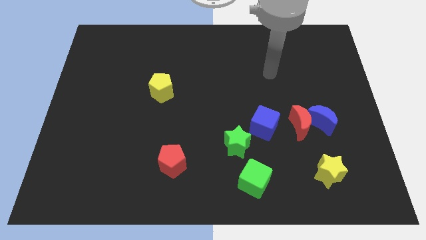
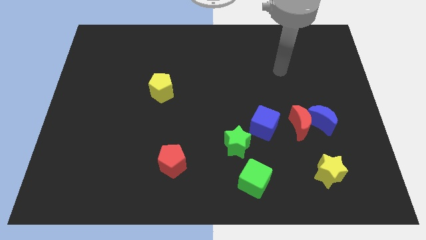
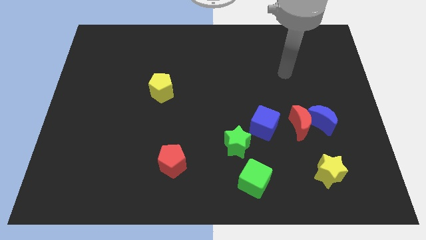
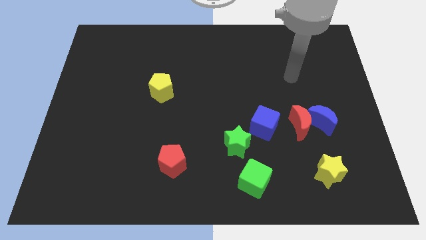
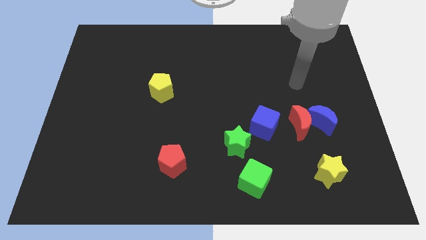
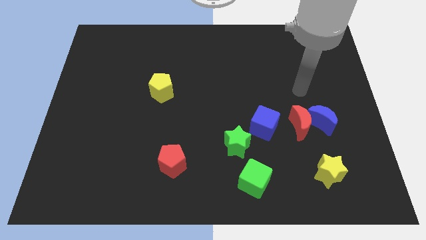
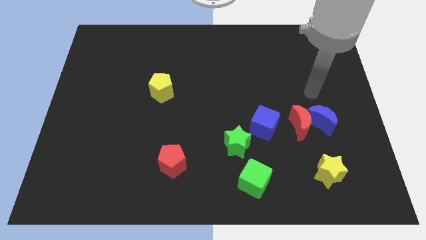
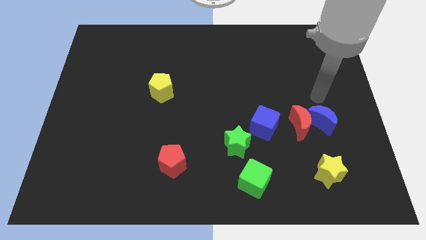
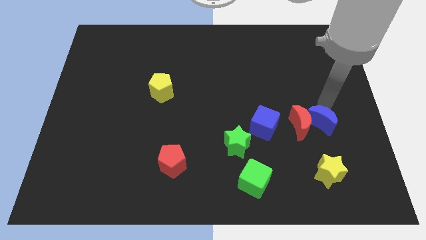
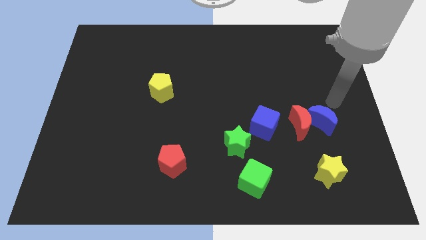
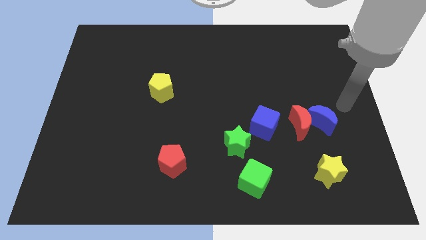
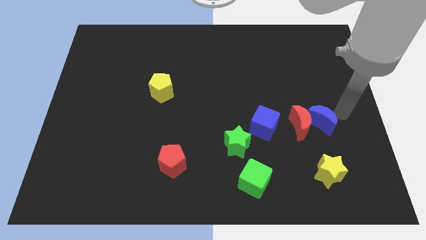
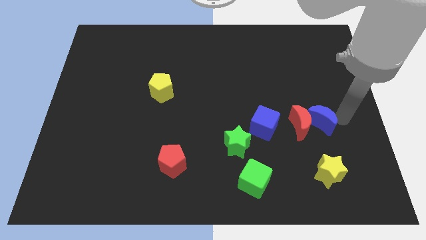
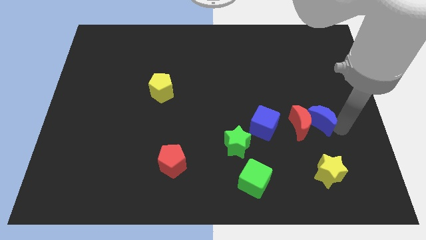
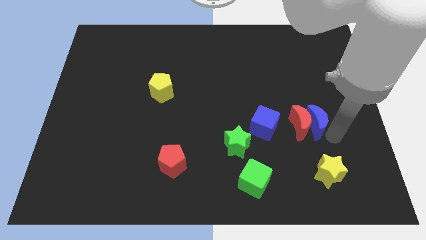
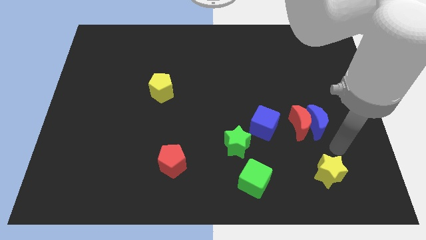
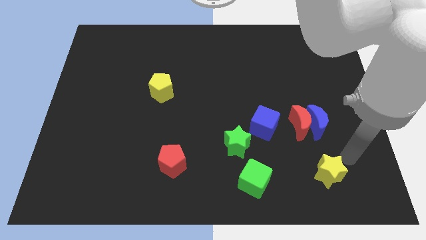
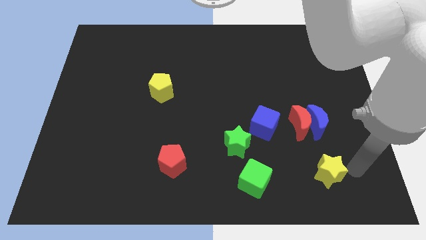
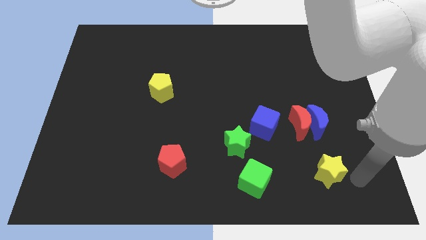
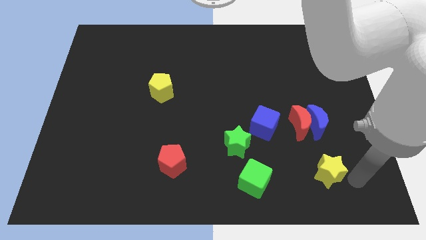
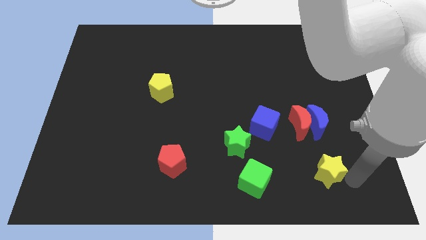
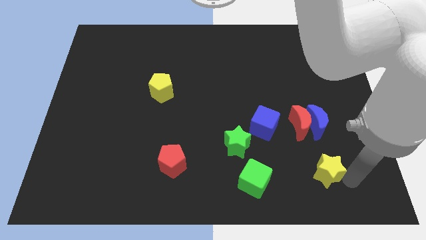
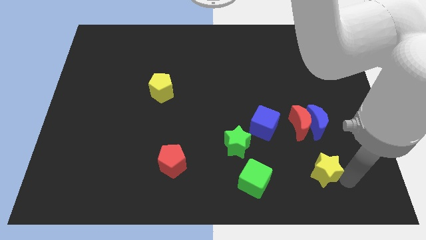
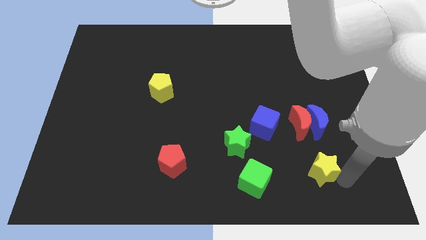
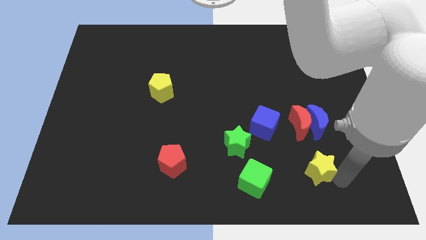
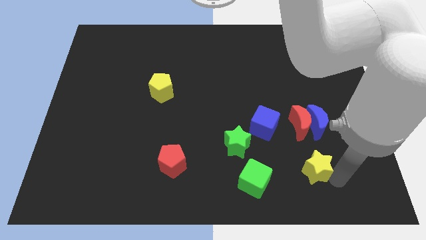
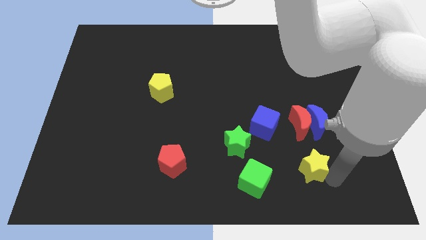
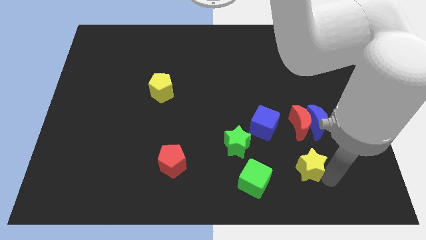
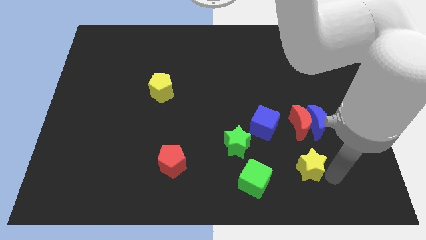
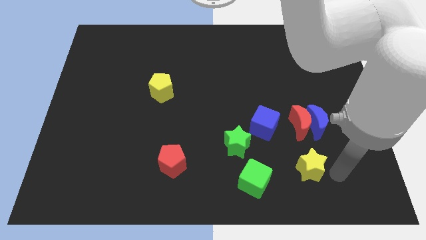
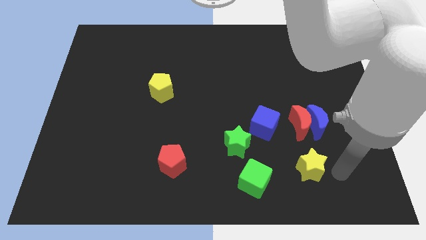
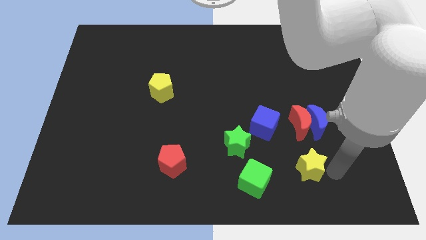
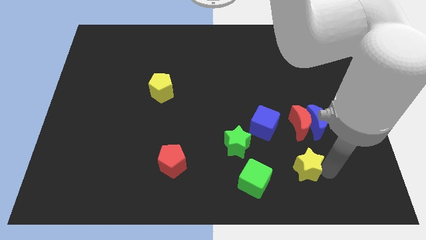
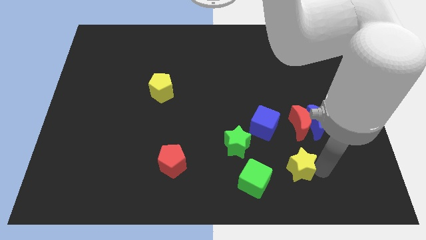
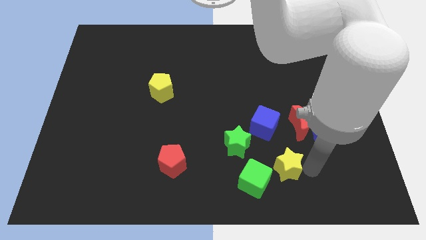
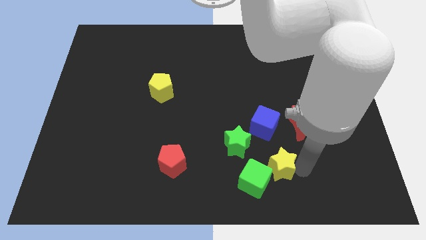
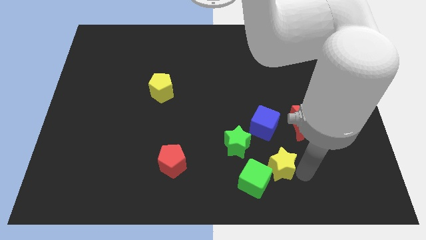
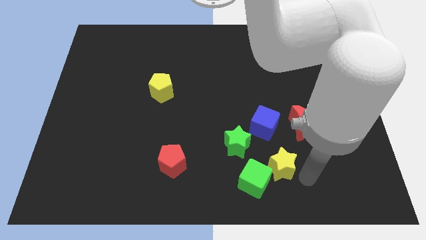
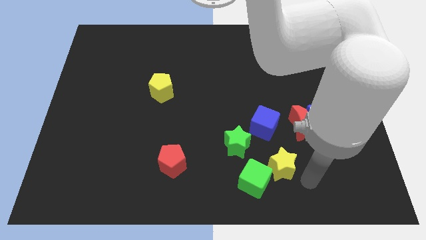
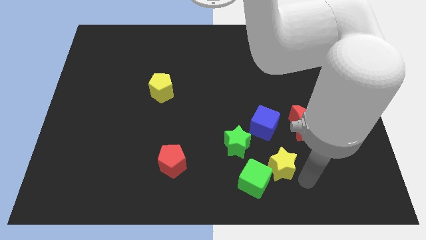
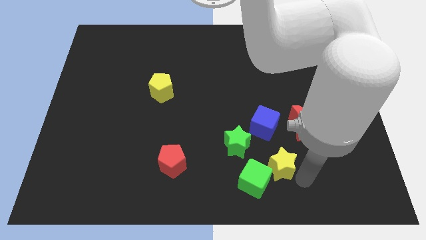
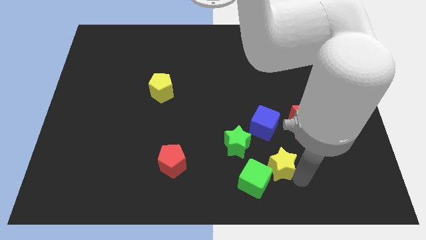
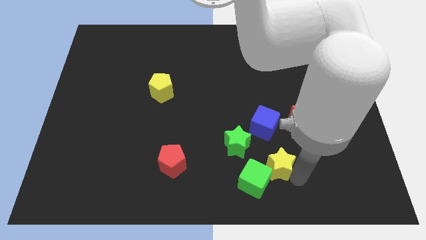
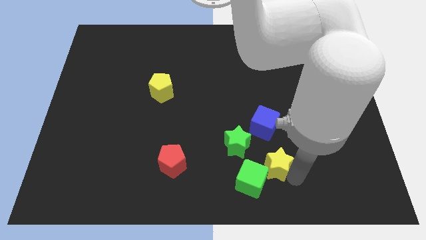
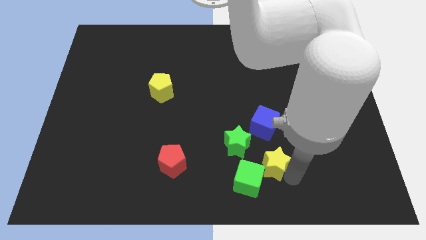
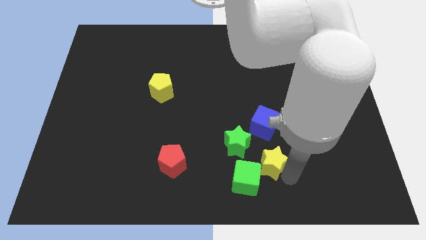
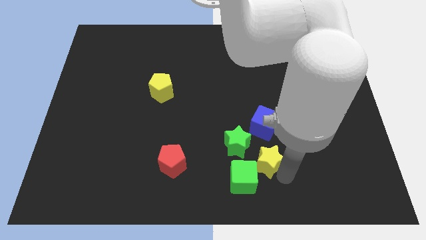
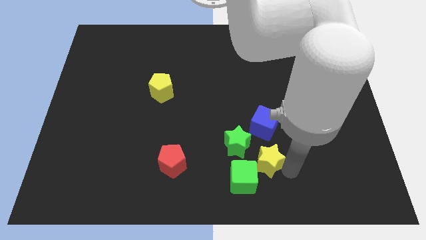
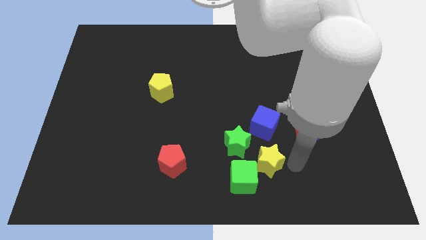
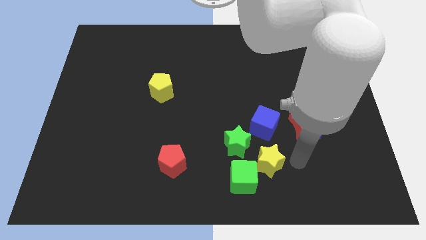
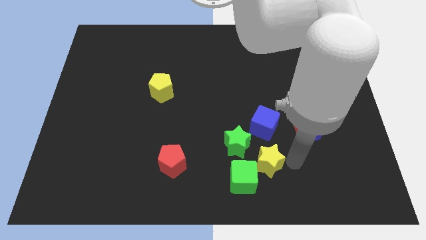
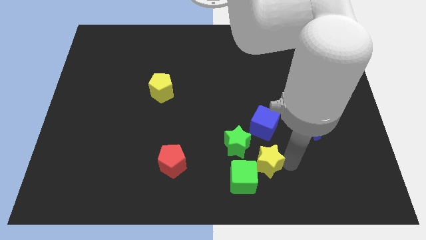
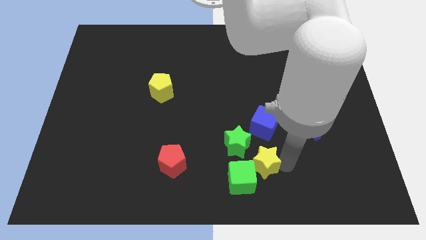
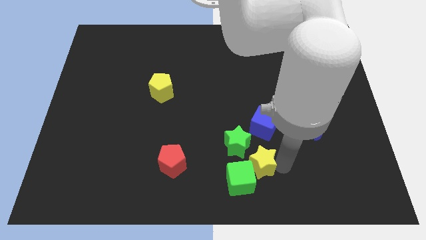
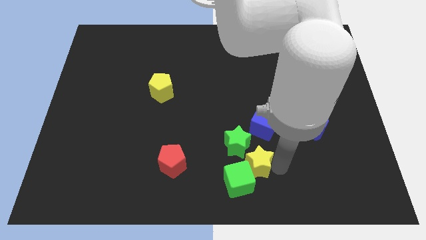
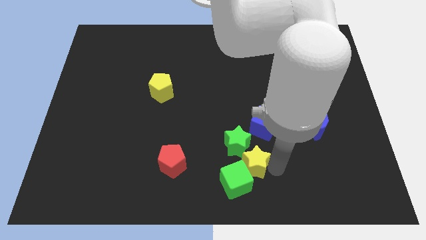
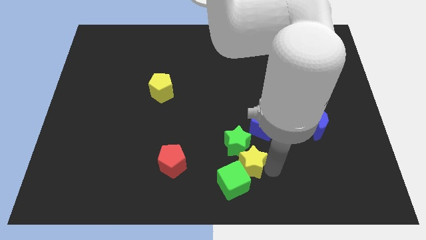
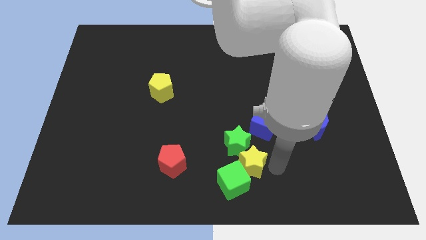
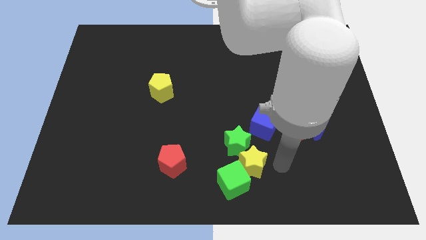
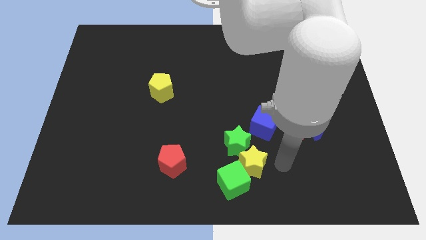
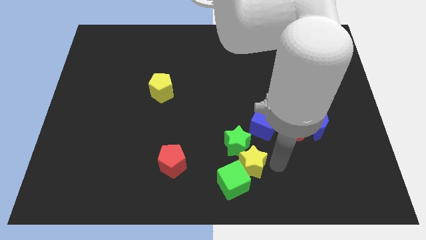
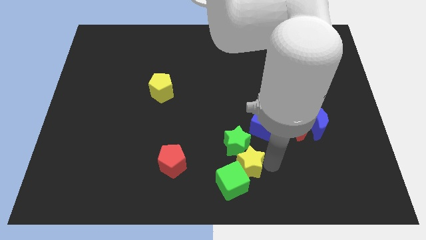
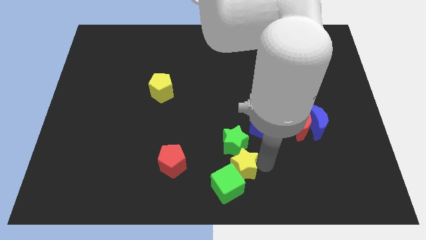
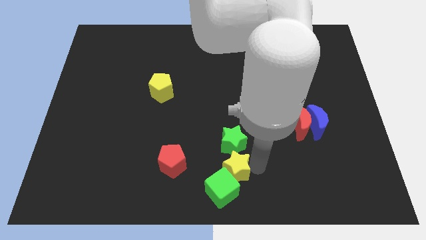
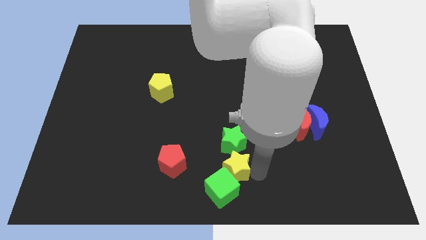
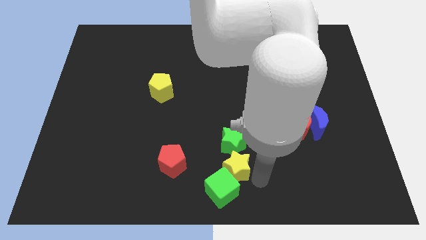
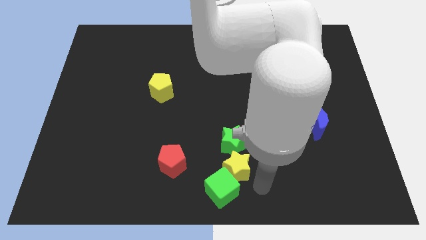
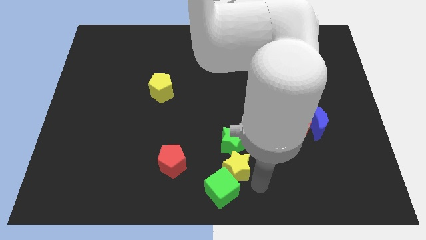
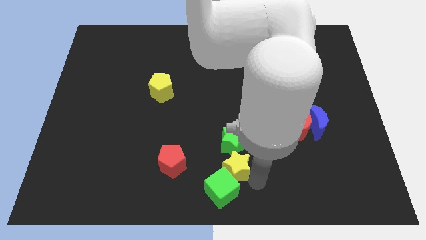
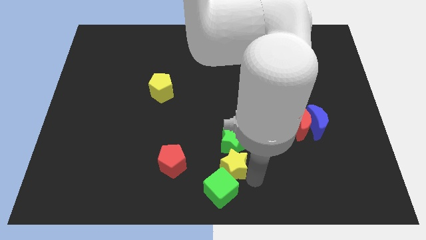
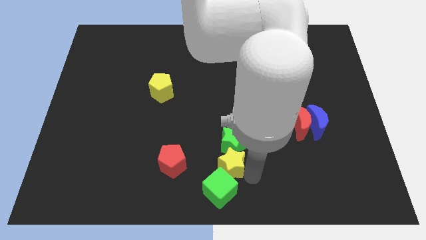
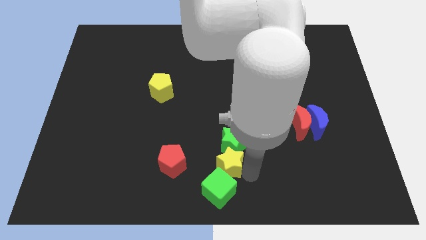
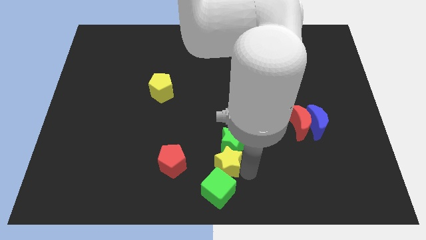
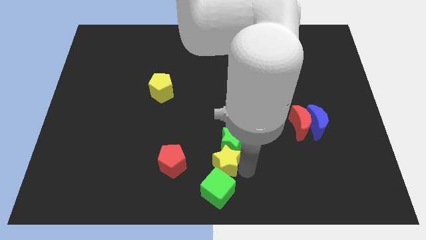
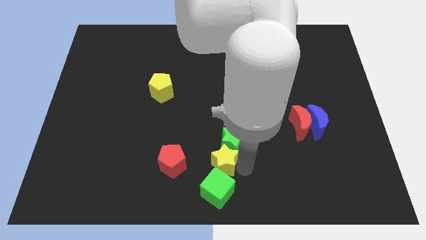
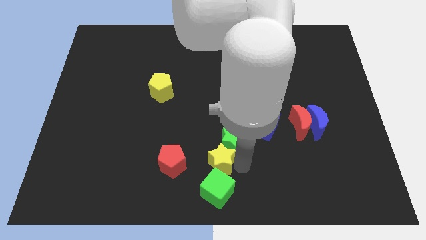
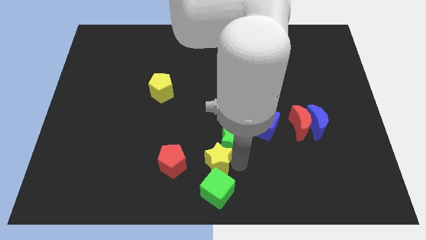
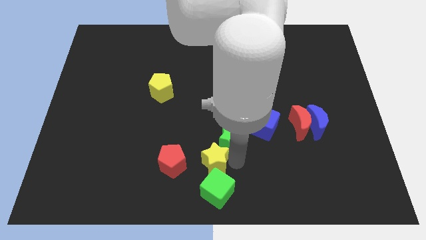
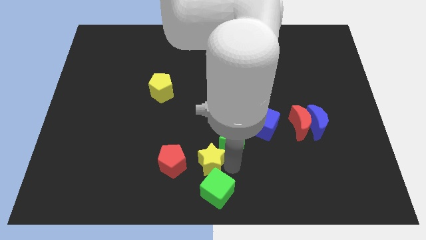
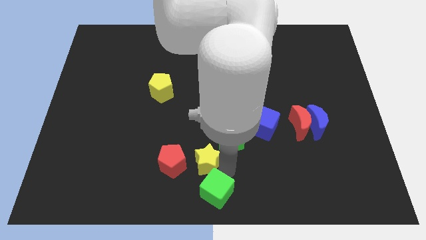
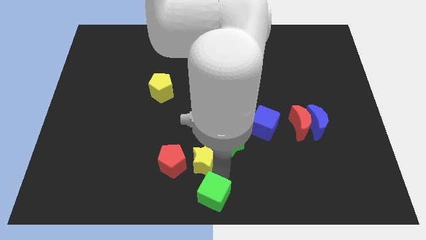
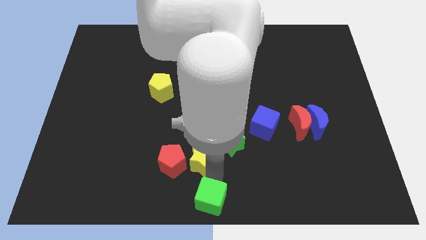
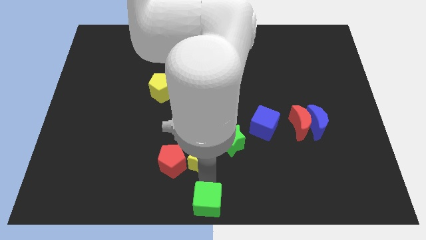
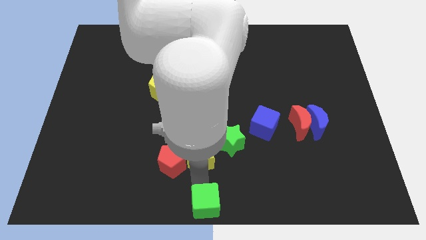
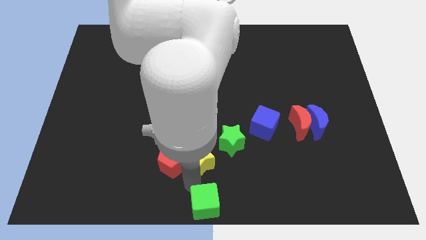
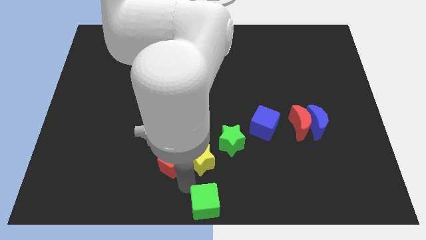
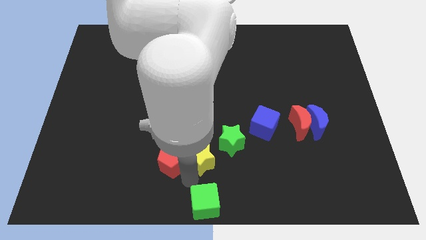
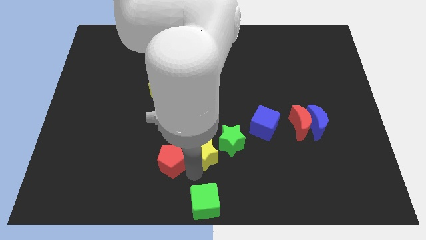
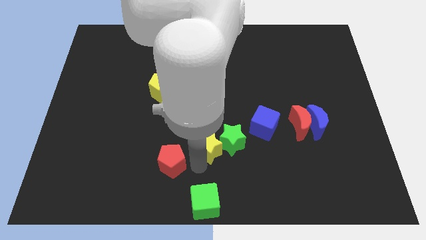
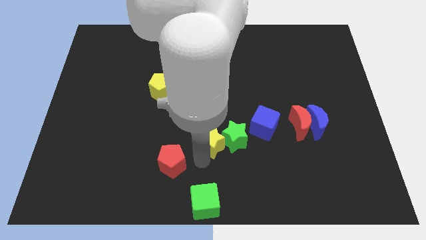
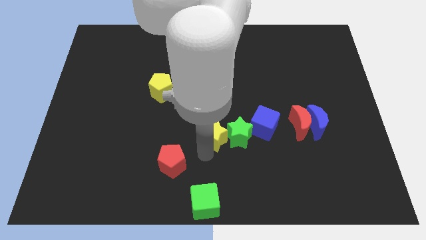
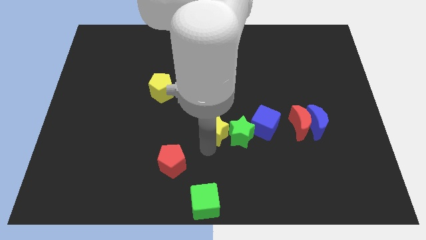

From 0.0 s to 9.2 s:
slide the yellow star up and then left
